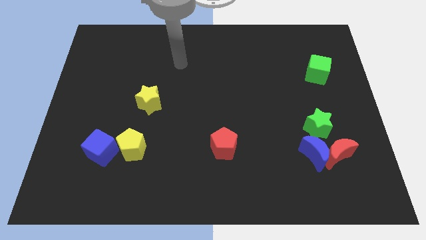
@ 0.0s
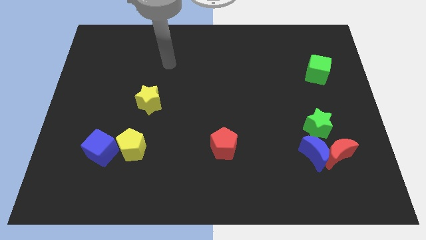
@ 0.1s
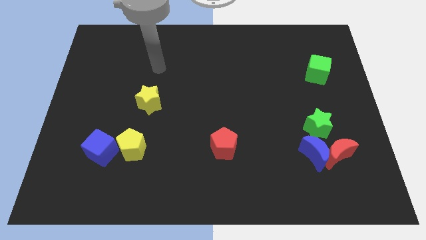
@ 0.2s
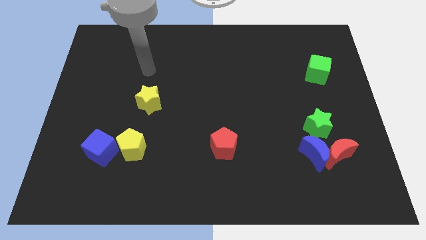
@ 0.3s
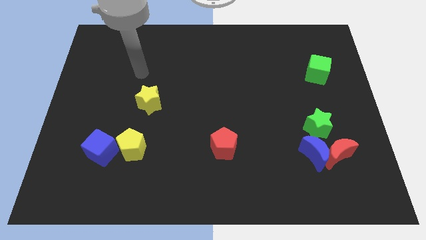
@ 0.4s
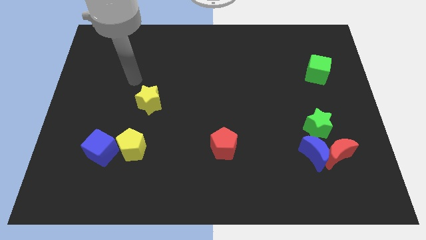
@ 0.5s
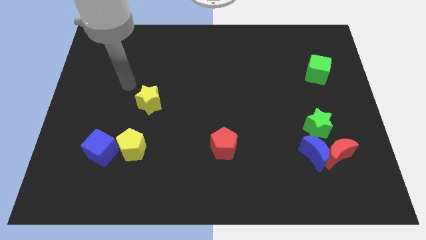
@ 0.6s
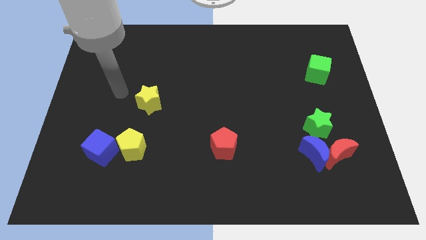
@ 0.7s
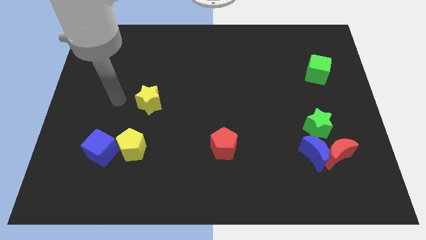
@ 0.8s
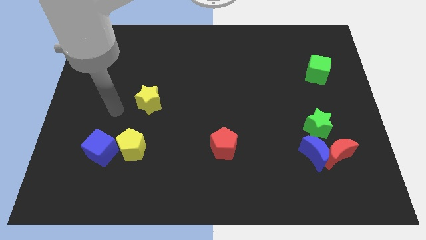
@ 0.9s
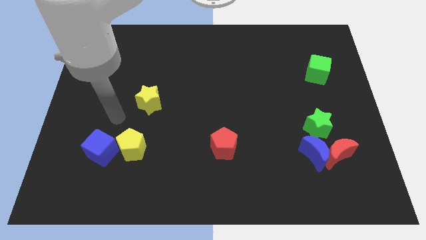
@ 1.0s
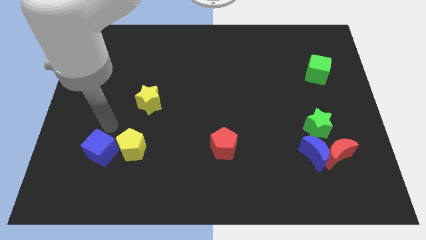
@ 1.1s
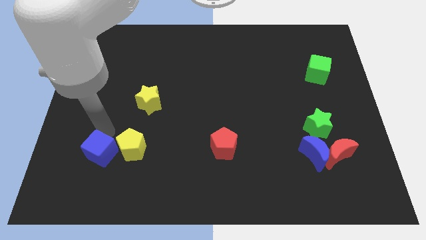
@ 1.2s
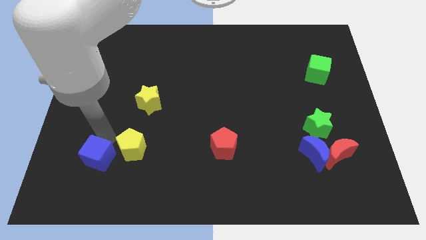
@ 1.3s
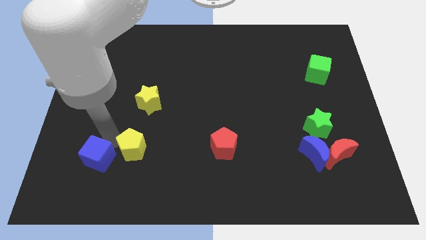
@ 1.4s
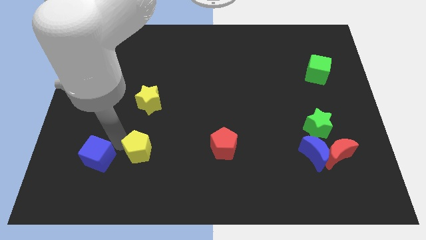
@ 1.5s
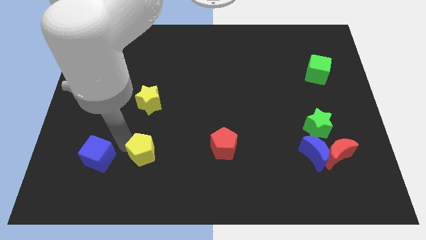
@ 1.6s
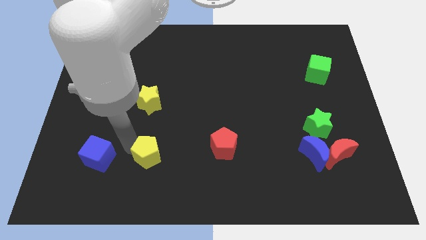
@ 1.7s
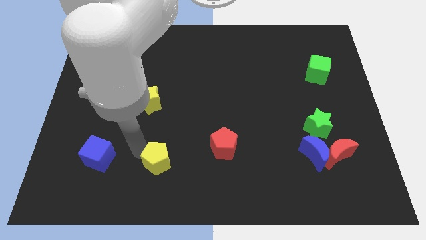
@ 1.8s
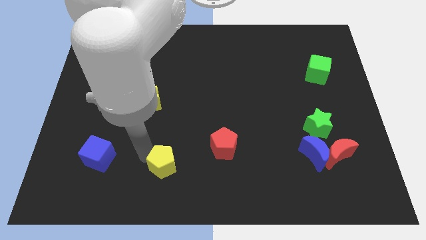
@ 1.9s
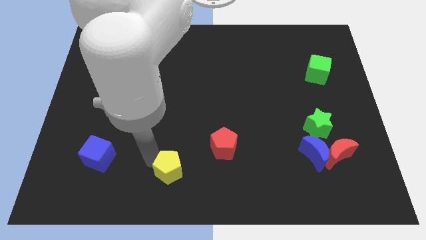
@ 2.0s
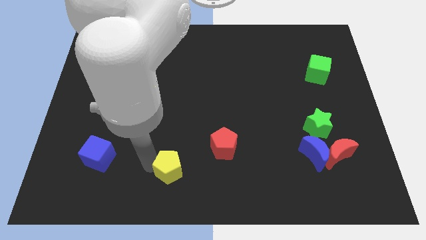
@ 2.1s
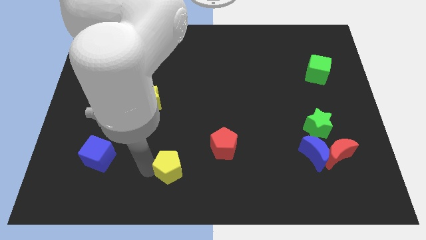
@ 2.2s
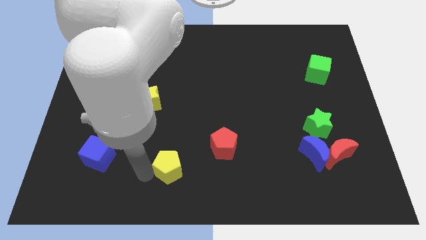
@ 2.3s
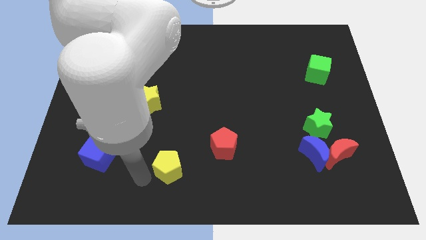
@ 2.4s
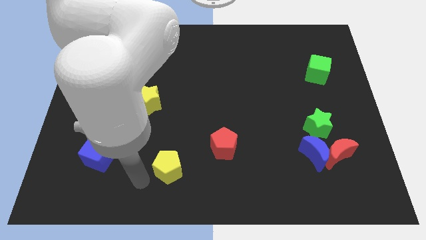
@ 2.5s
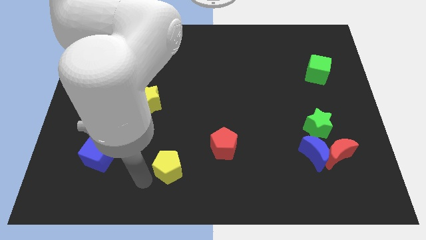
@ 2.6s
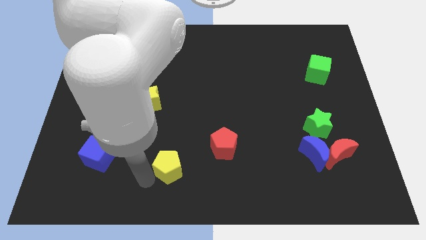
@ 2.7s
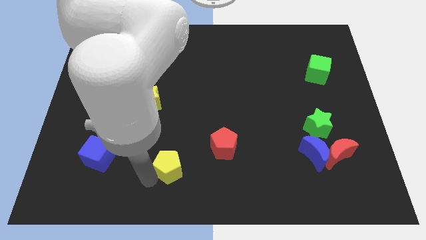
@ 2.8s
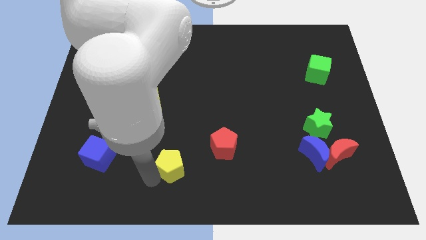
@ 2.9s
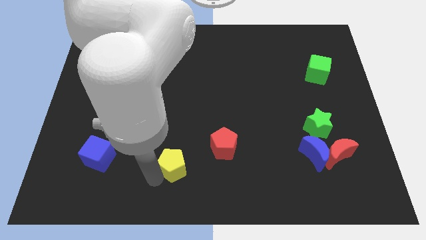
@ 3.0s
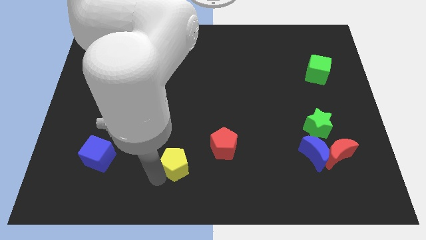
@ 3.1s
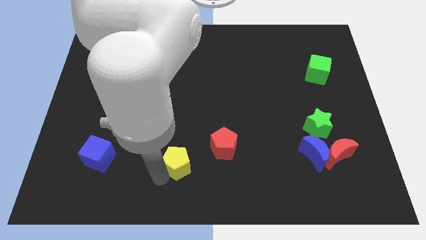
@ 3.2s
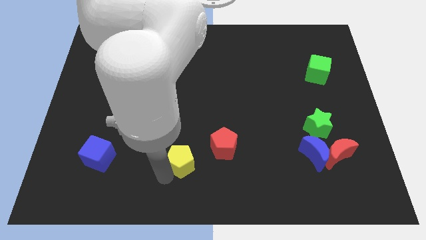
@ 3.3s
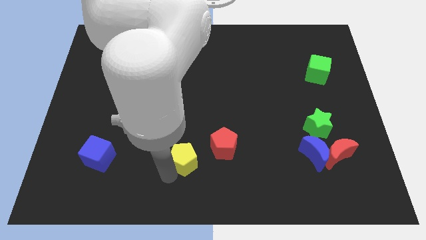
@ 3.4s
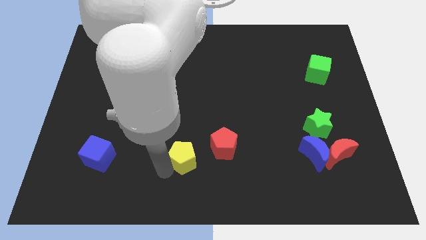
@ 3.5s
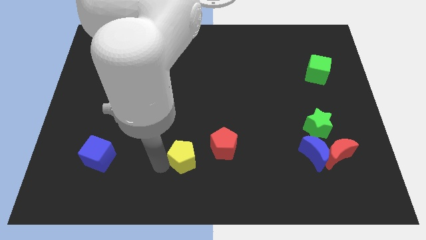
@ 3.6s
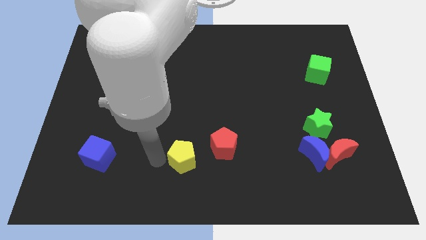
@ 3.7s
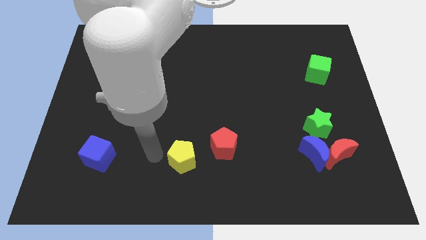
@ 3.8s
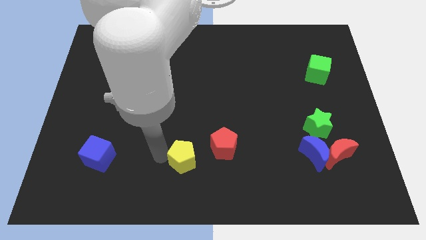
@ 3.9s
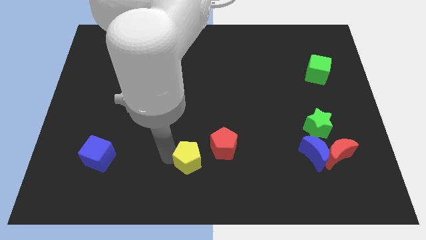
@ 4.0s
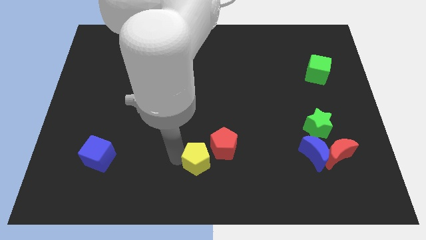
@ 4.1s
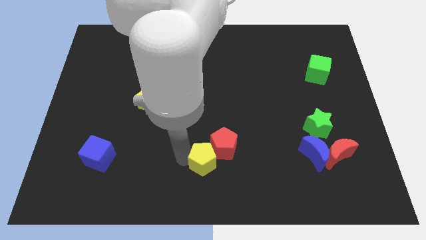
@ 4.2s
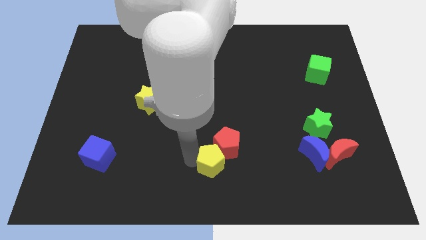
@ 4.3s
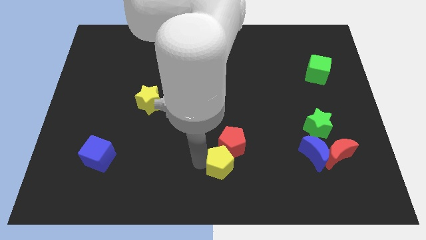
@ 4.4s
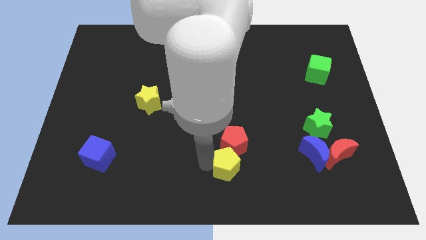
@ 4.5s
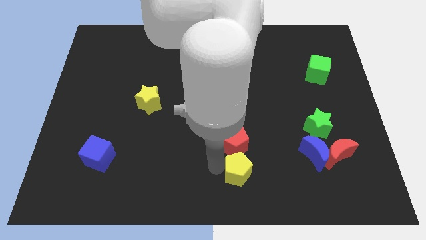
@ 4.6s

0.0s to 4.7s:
move the yellow pentagon right

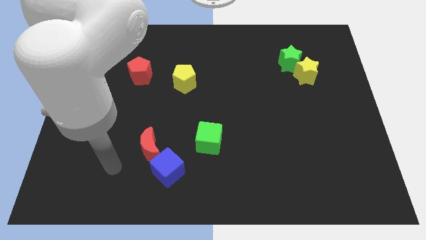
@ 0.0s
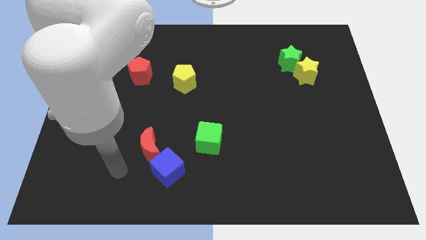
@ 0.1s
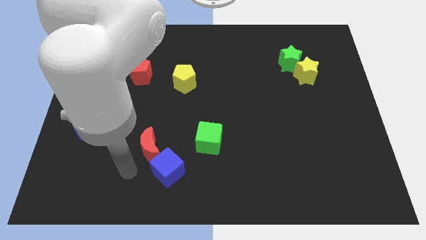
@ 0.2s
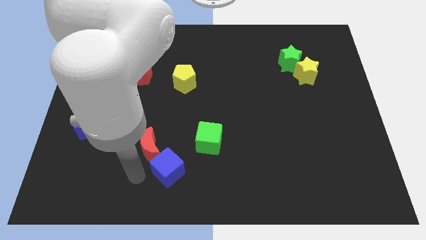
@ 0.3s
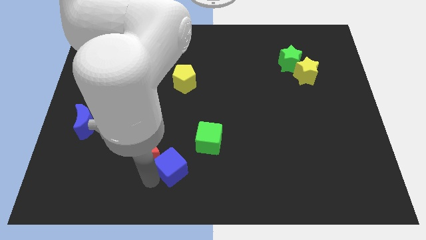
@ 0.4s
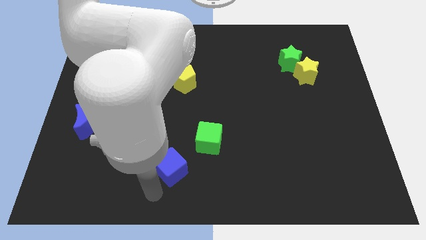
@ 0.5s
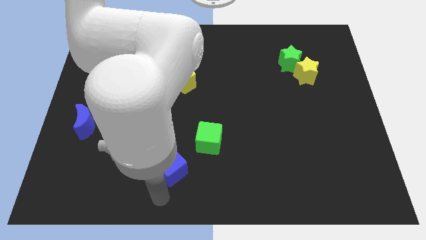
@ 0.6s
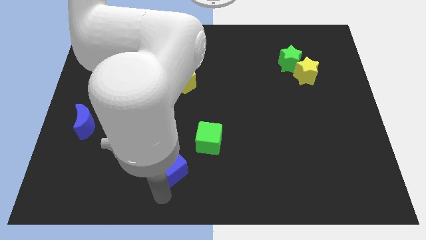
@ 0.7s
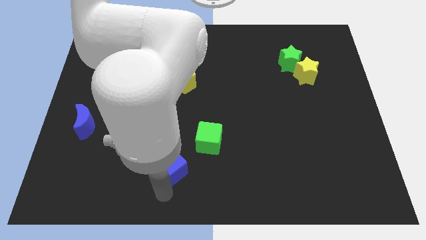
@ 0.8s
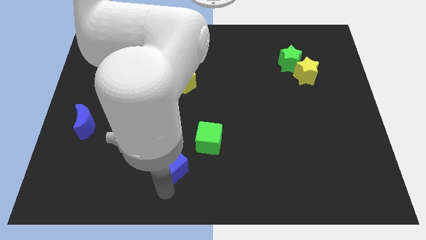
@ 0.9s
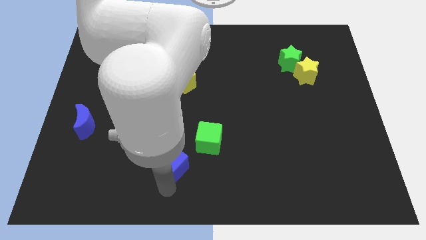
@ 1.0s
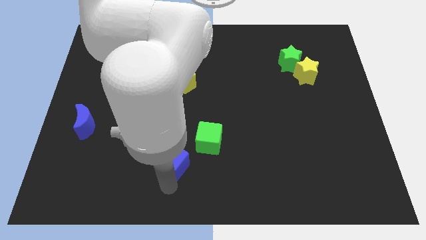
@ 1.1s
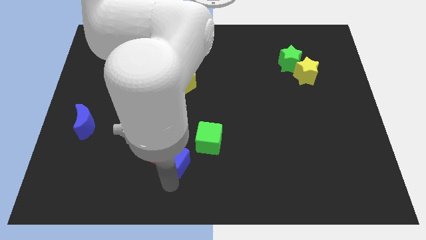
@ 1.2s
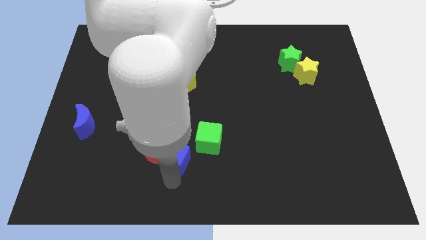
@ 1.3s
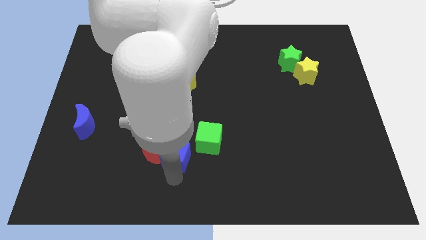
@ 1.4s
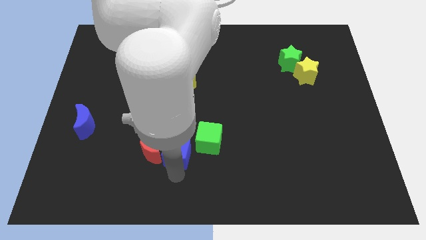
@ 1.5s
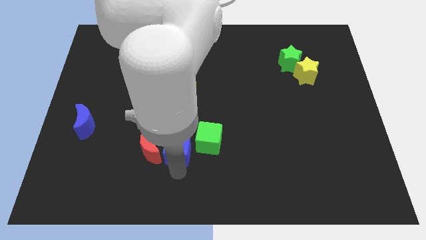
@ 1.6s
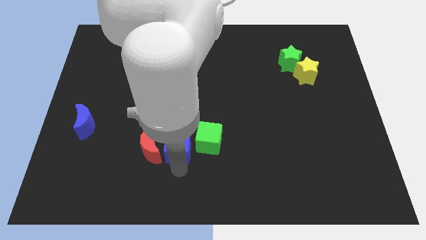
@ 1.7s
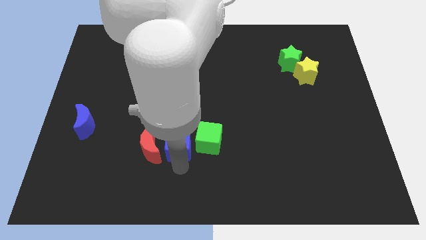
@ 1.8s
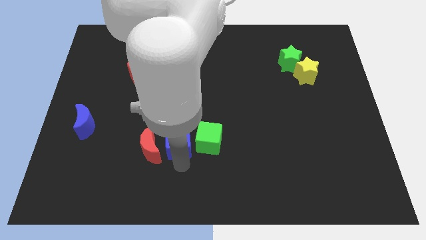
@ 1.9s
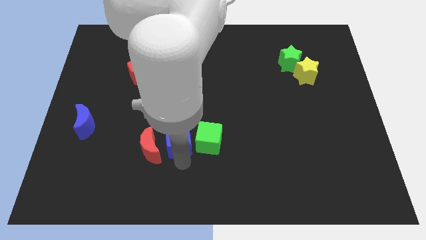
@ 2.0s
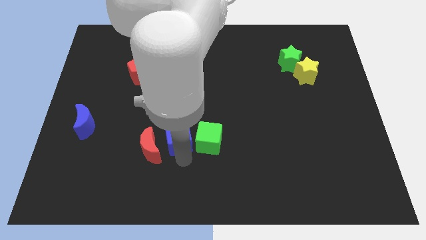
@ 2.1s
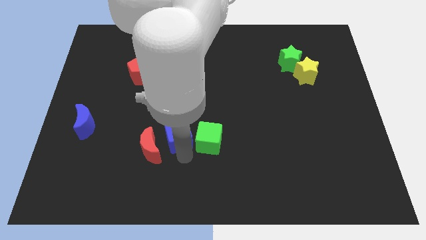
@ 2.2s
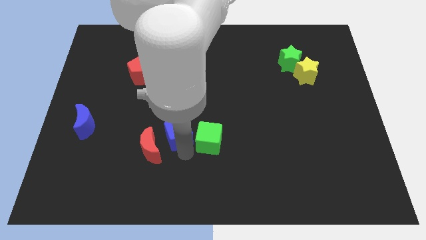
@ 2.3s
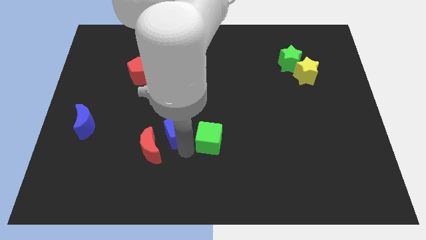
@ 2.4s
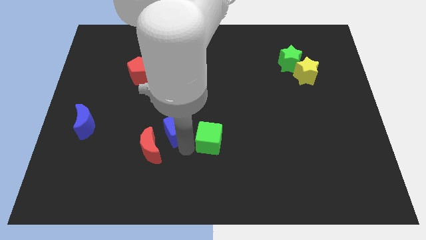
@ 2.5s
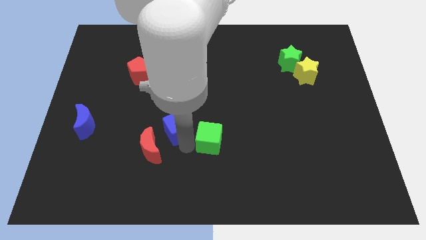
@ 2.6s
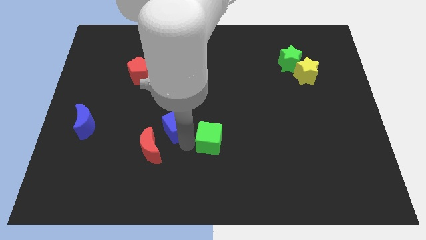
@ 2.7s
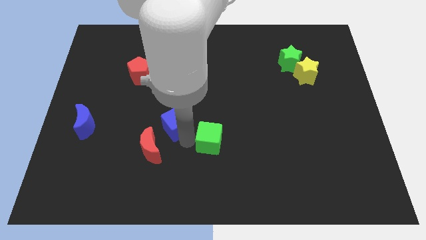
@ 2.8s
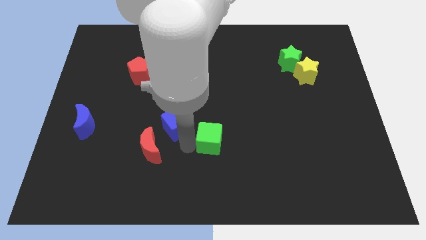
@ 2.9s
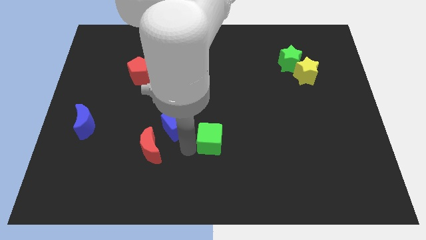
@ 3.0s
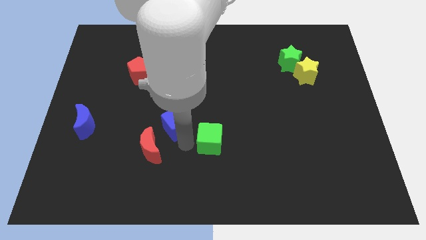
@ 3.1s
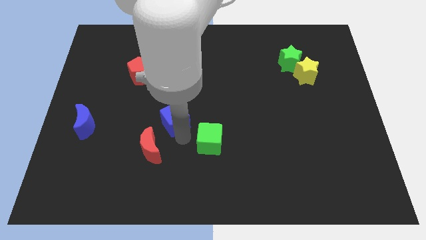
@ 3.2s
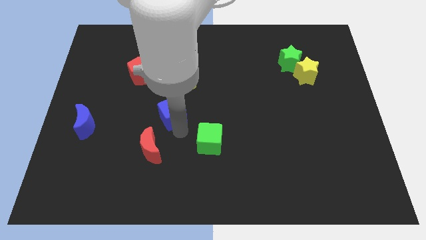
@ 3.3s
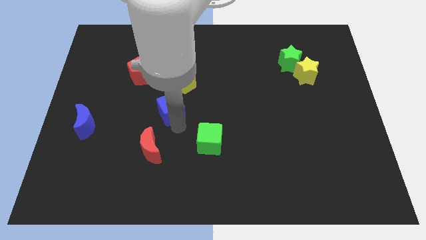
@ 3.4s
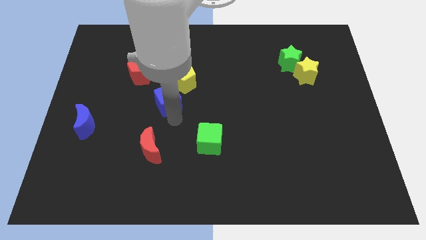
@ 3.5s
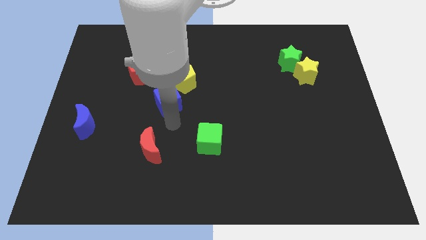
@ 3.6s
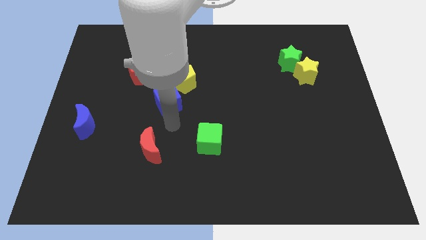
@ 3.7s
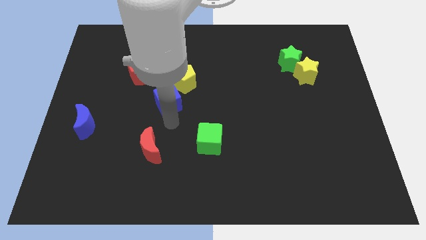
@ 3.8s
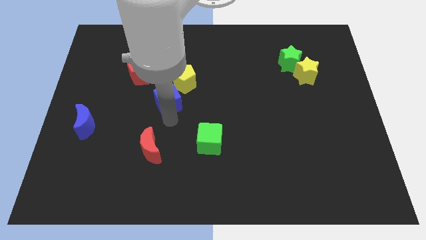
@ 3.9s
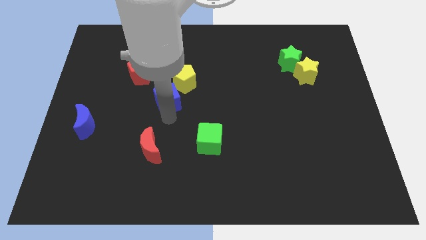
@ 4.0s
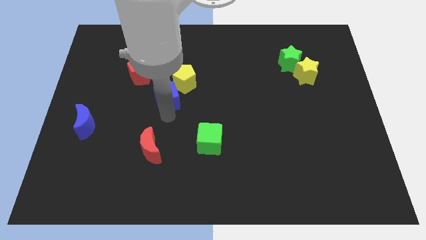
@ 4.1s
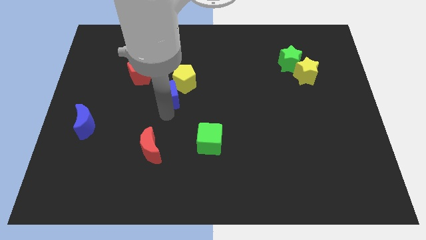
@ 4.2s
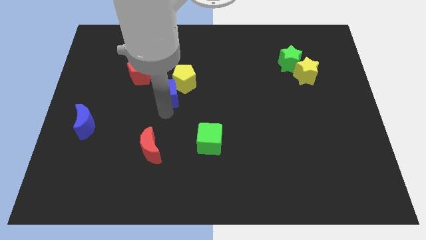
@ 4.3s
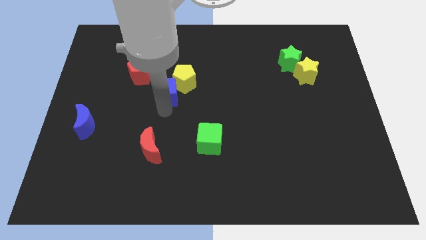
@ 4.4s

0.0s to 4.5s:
move the blue cube up
